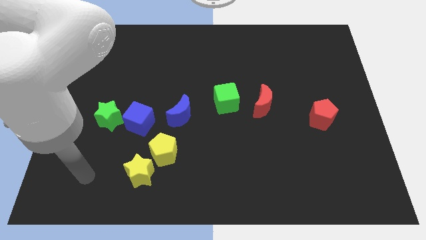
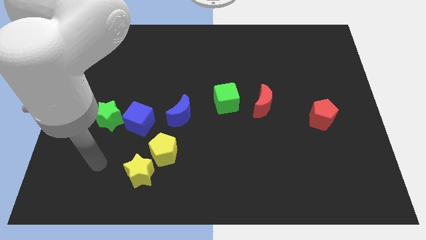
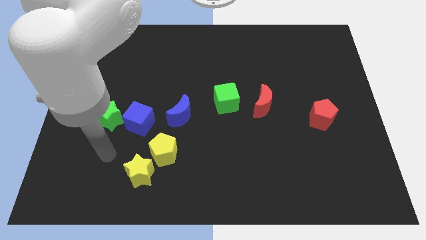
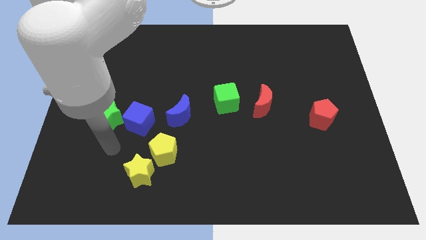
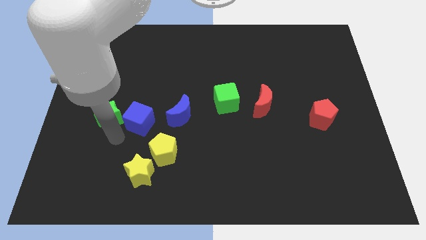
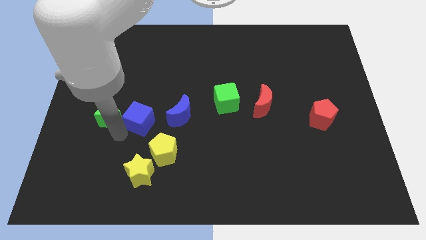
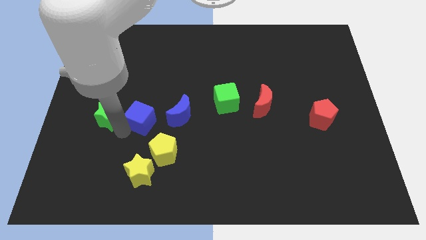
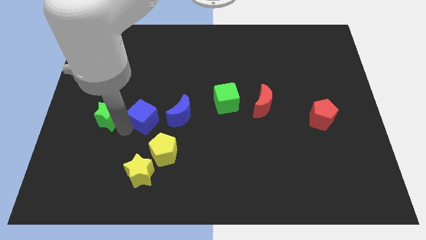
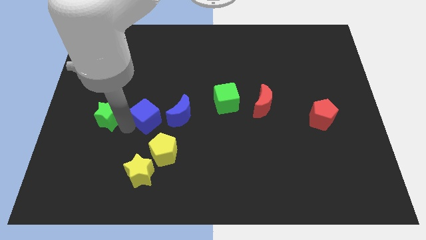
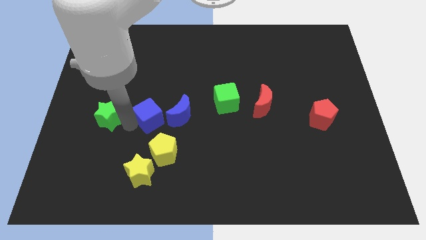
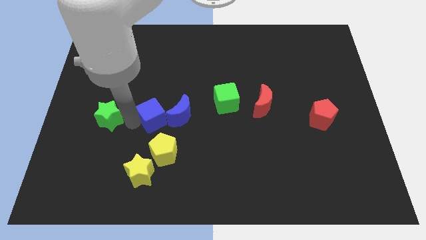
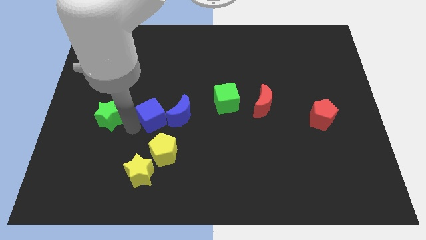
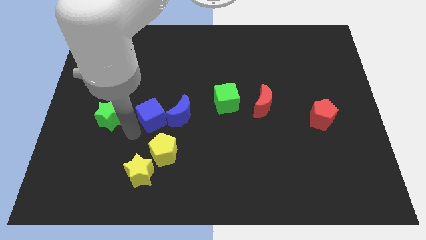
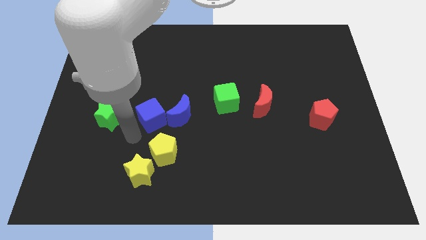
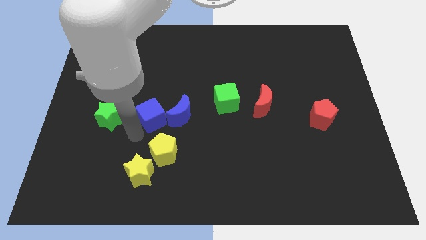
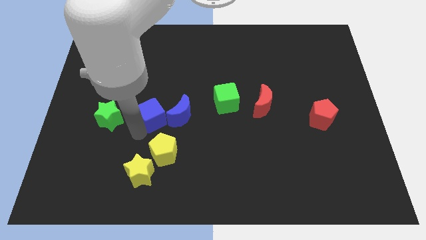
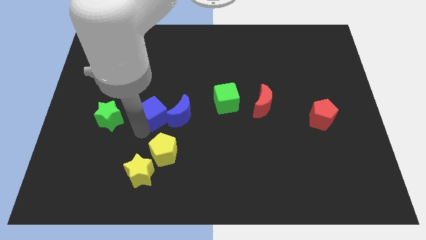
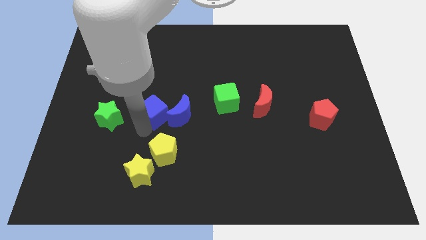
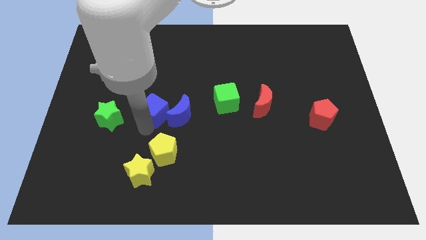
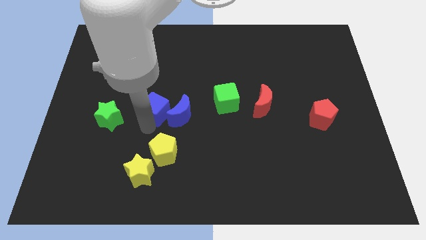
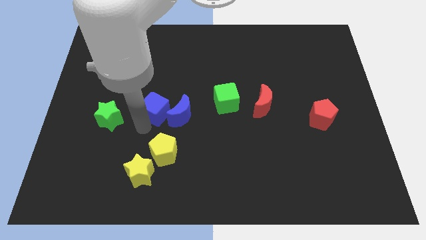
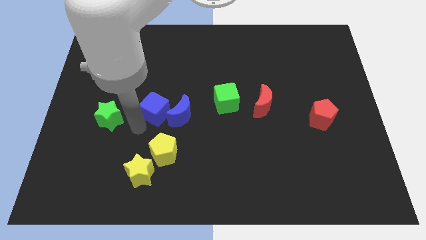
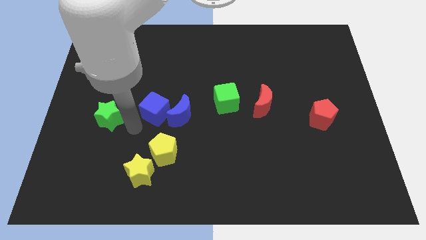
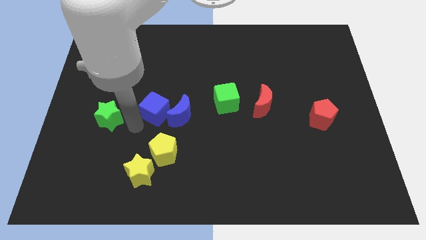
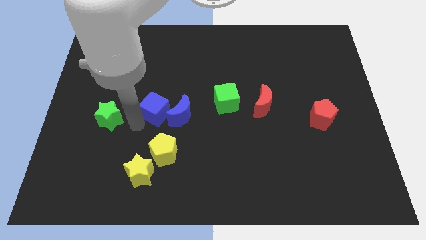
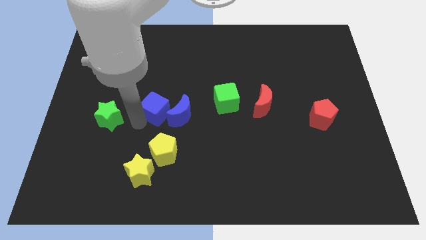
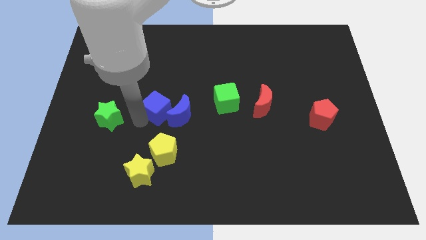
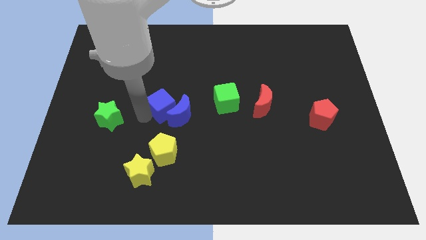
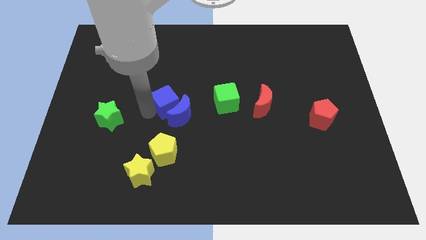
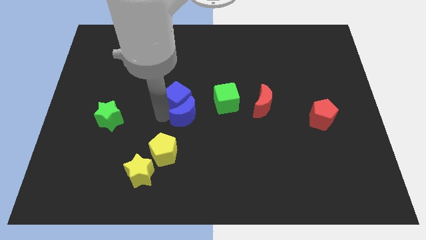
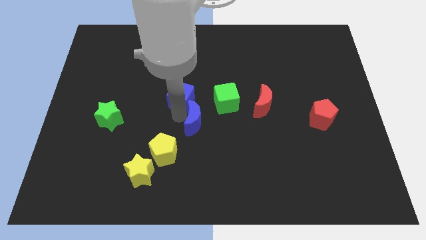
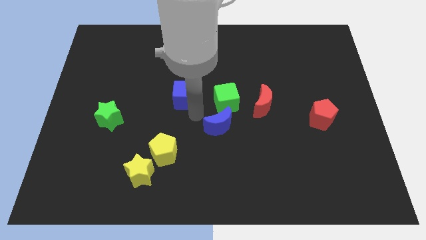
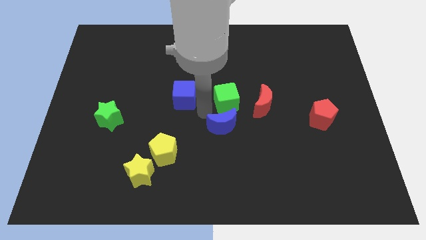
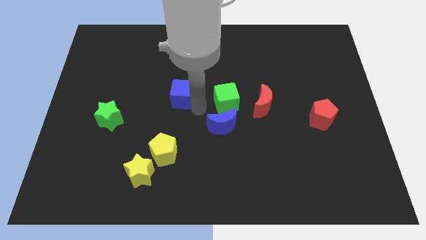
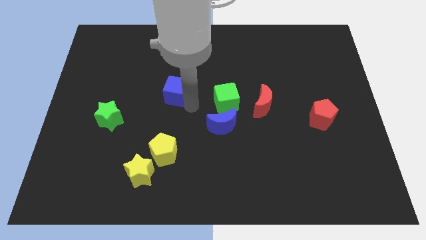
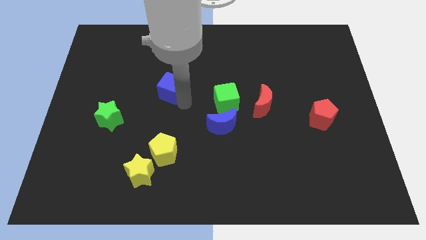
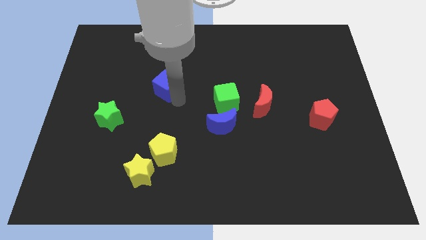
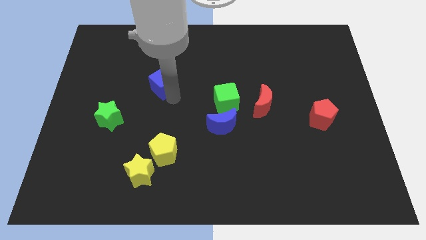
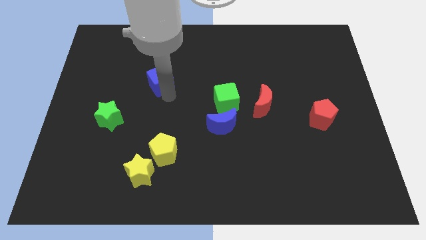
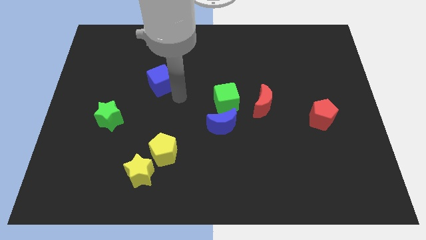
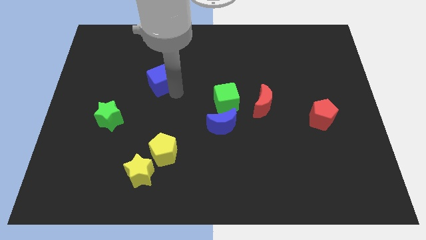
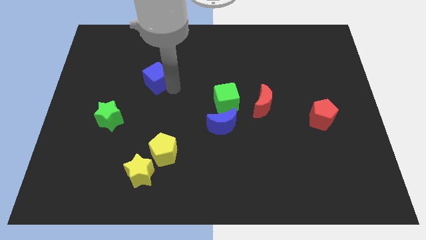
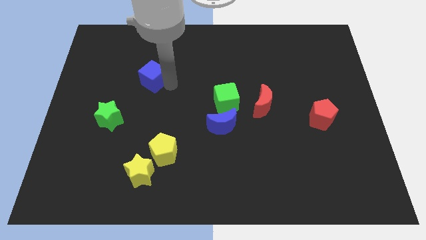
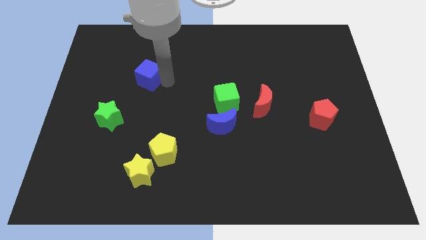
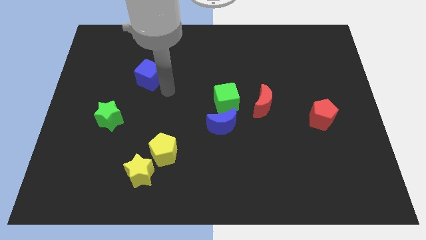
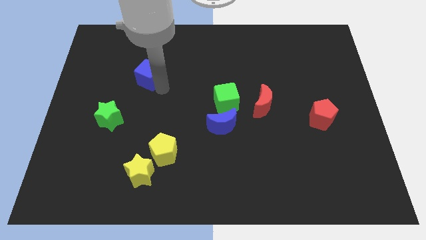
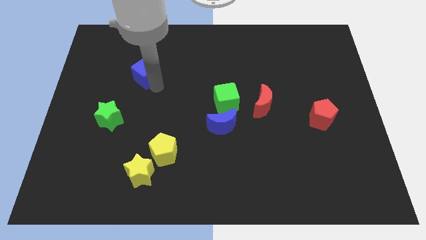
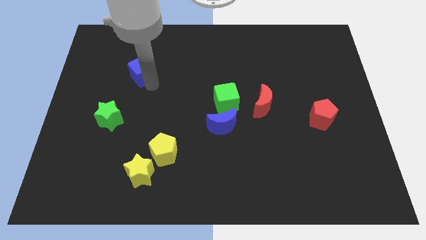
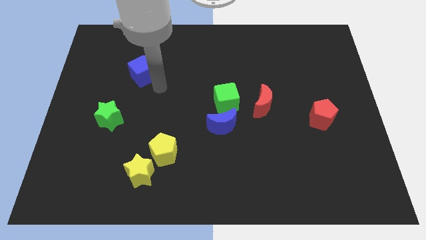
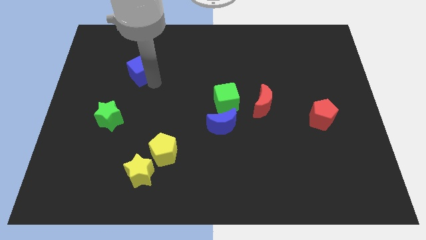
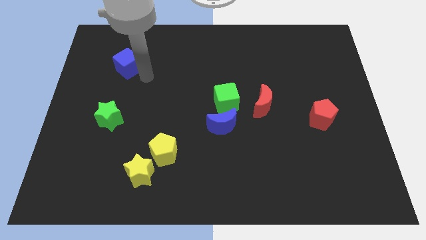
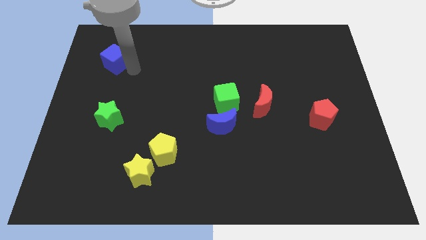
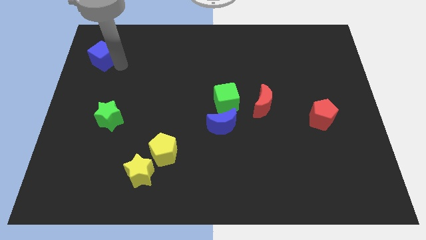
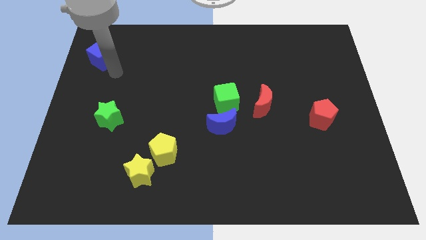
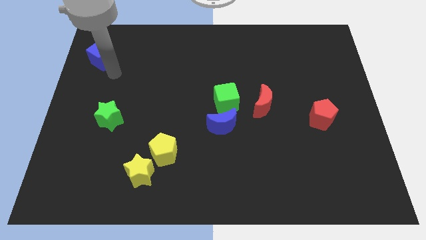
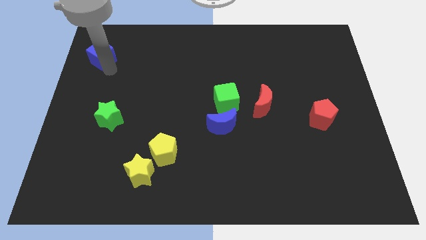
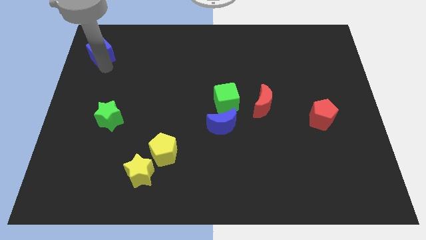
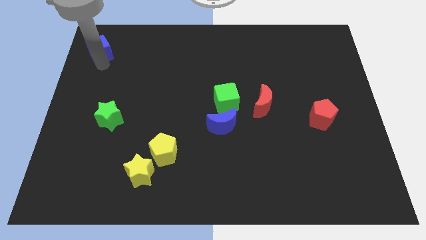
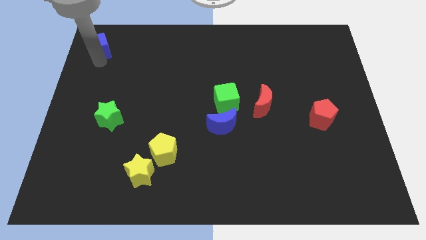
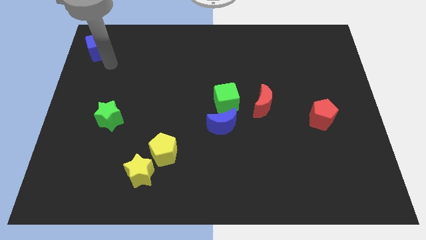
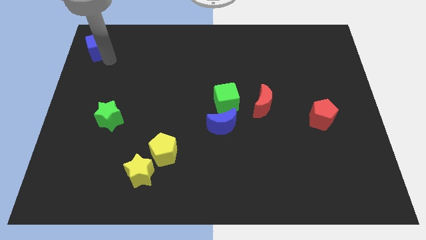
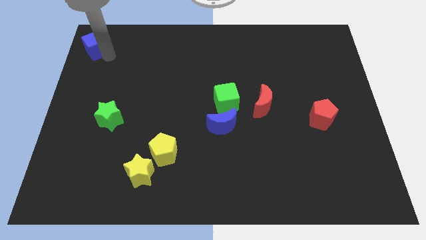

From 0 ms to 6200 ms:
put the blue cube to the top left

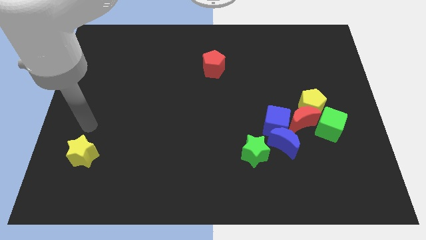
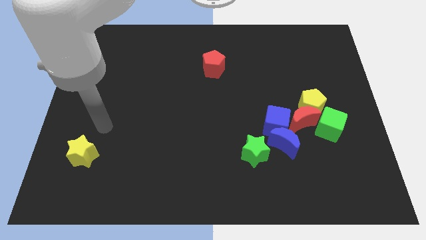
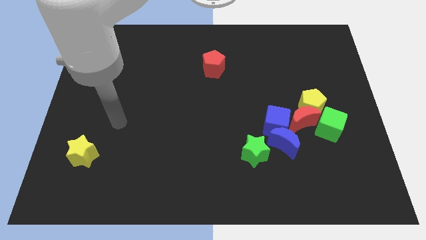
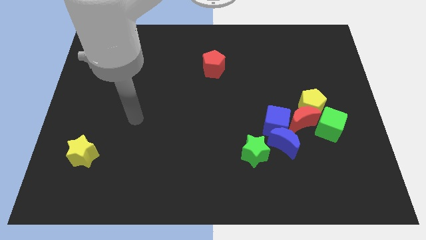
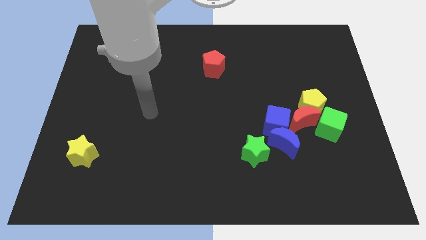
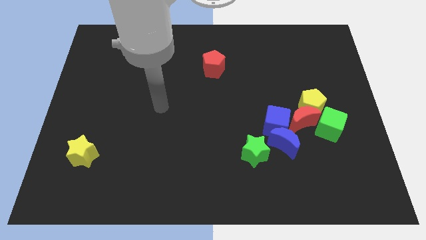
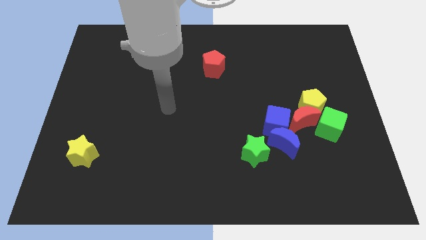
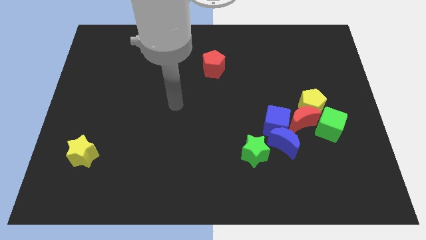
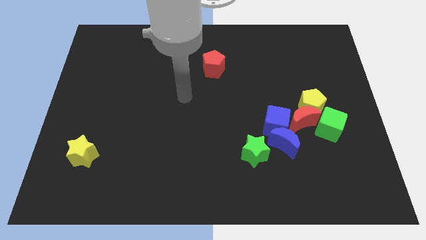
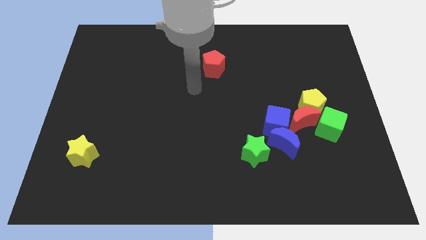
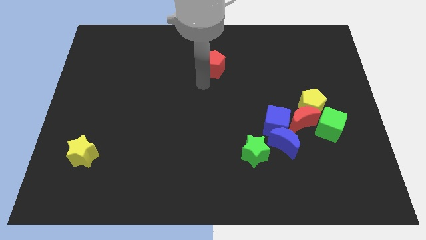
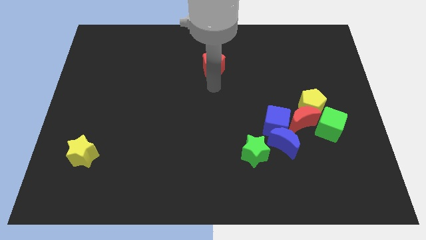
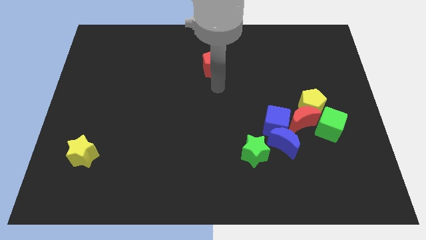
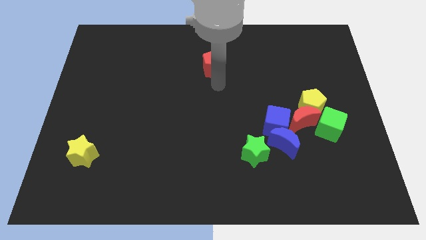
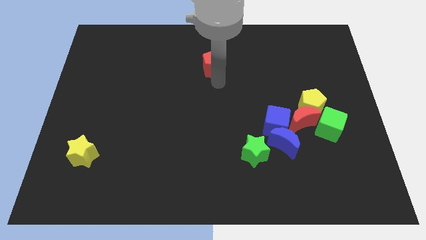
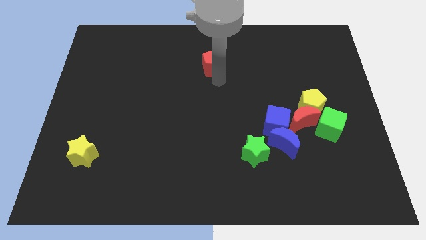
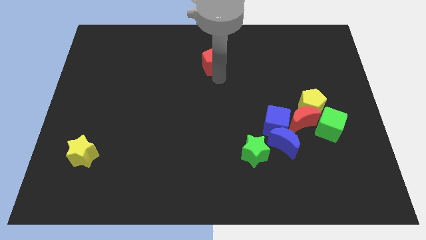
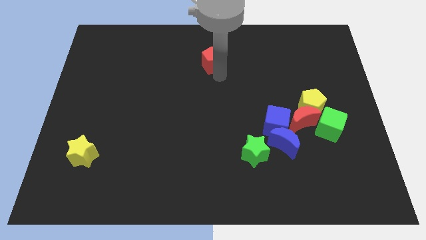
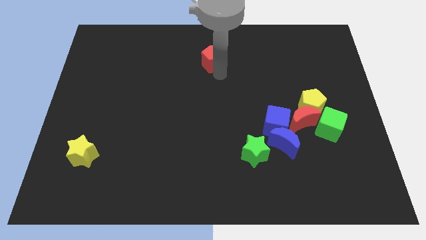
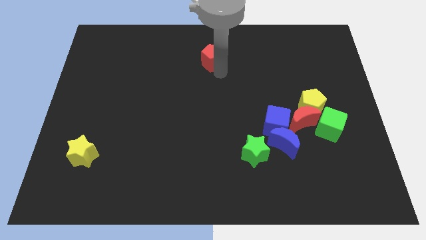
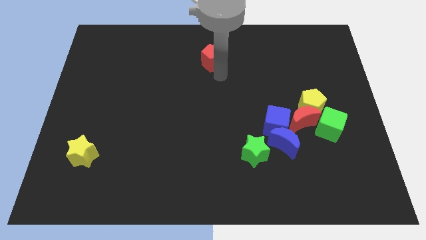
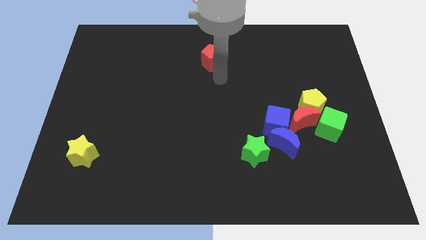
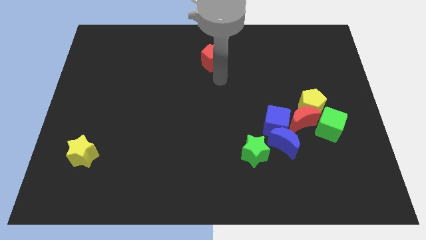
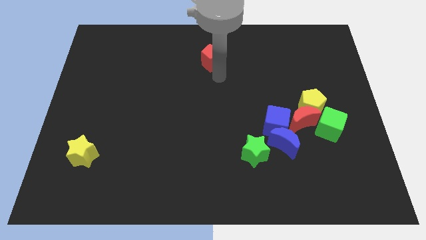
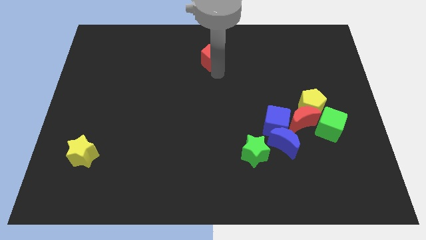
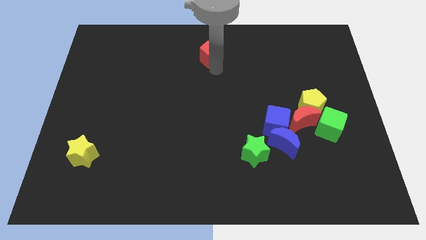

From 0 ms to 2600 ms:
move the red pentagon to the top side
